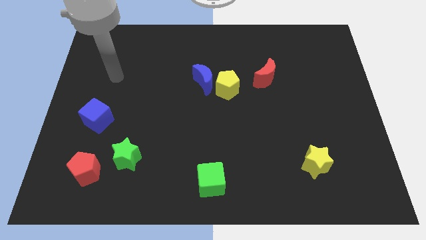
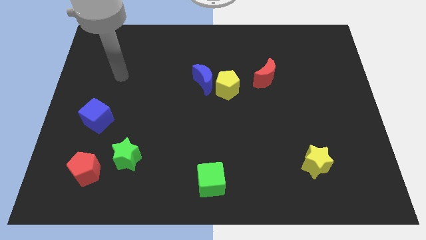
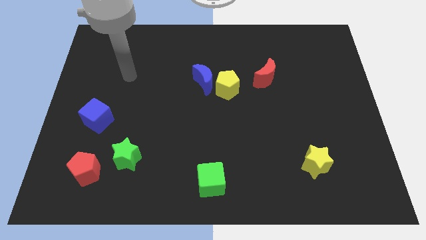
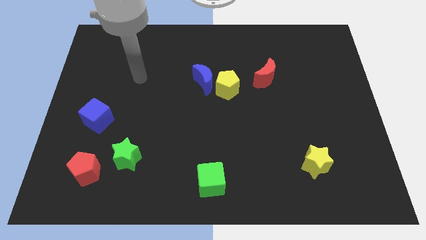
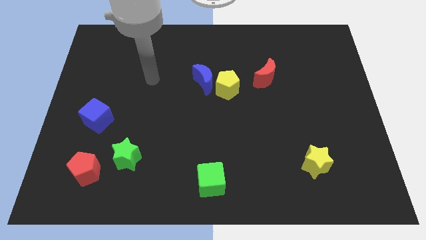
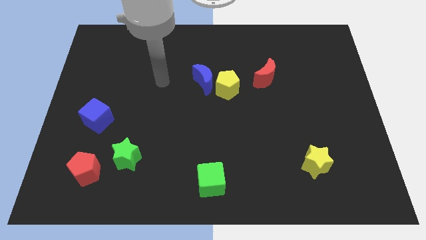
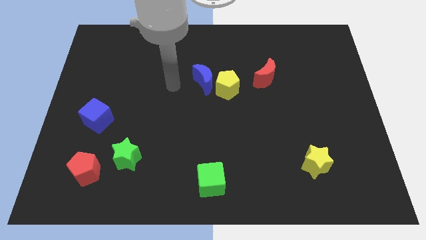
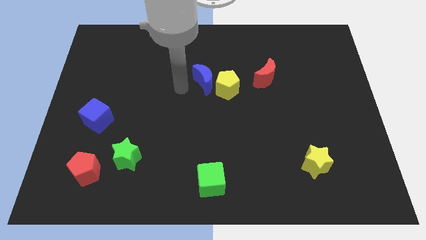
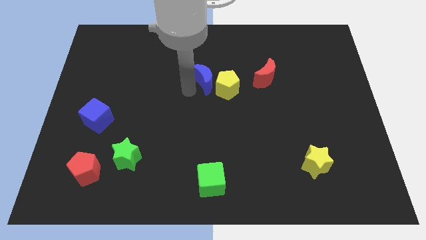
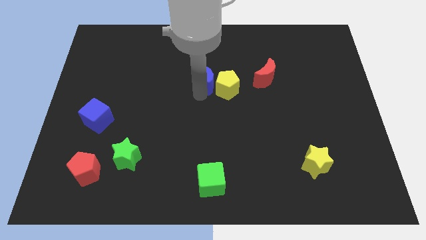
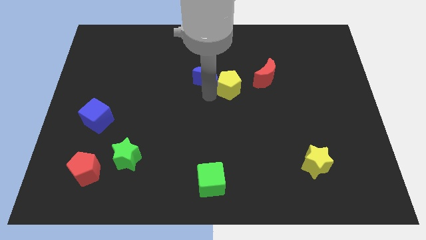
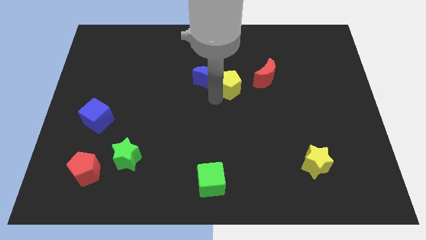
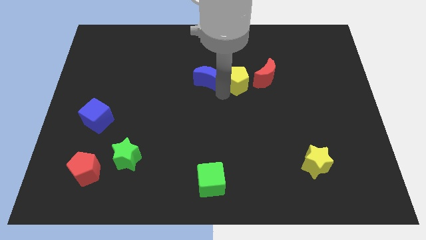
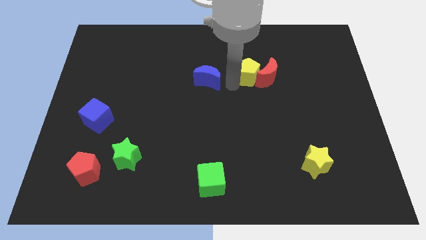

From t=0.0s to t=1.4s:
separate the blue moon from the yellow pentagon

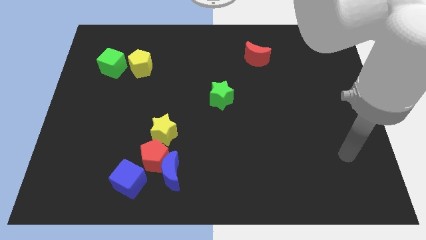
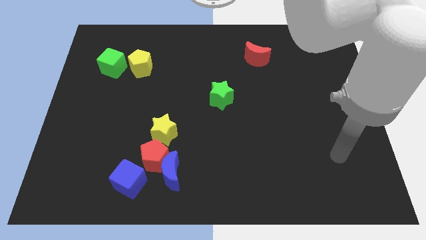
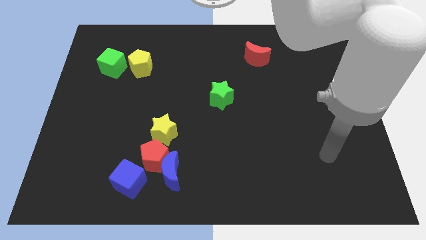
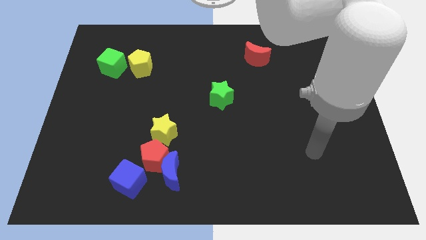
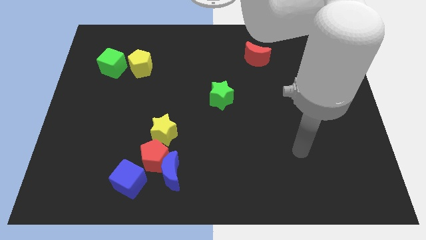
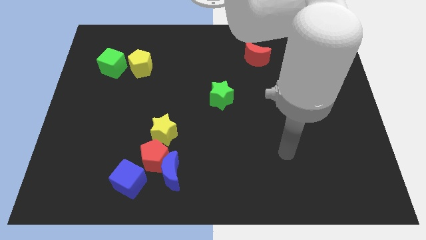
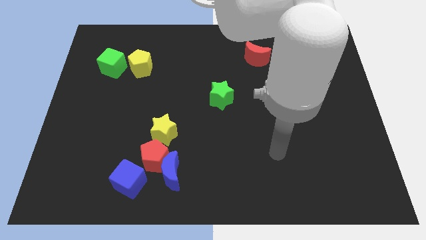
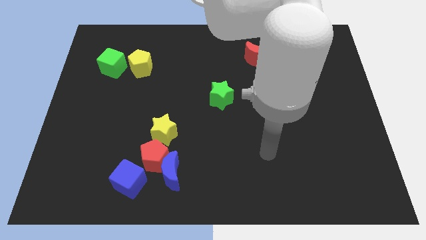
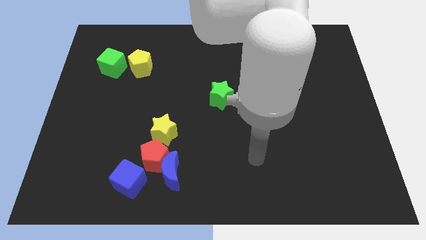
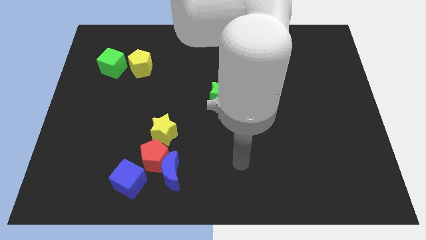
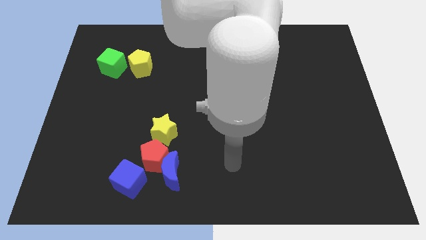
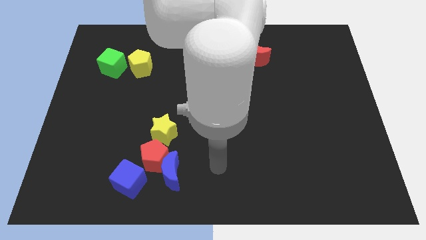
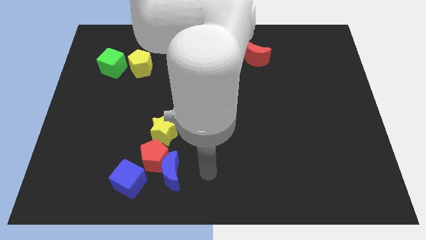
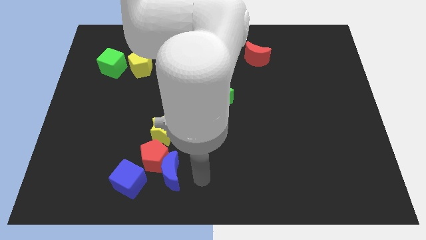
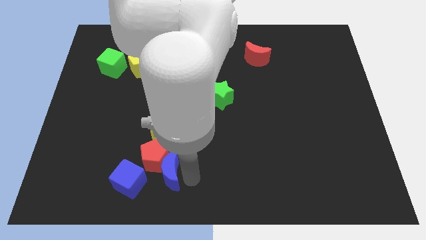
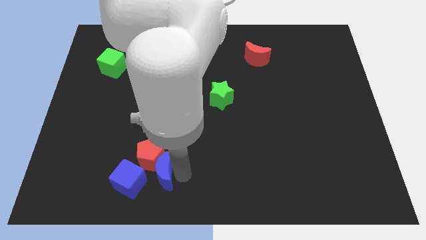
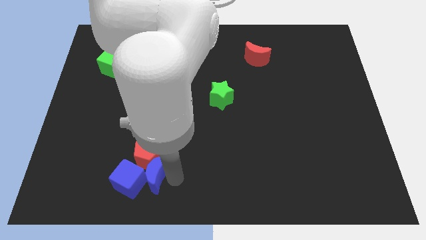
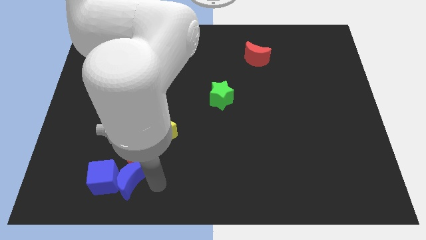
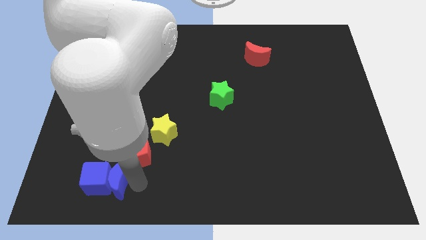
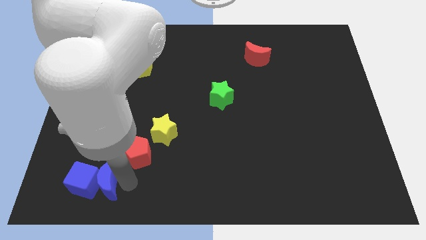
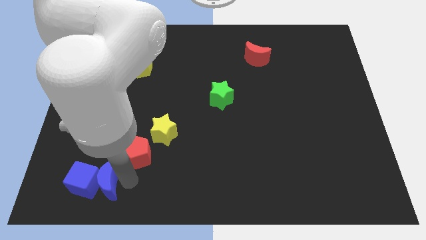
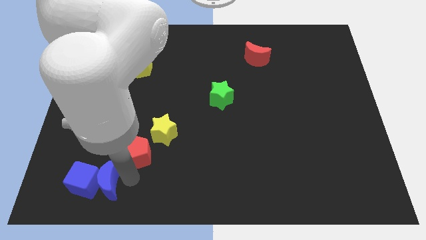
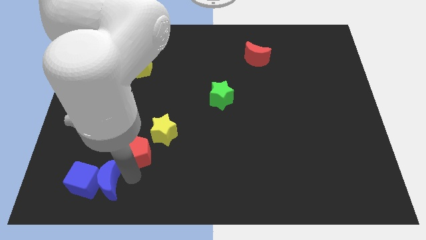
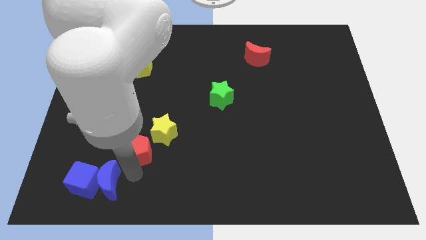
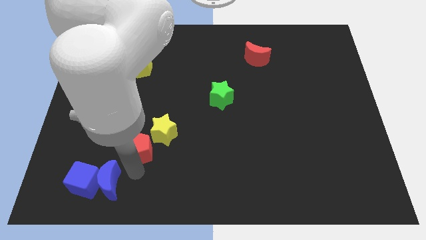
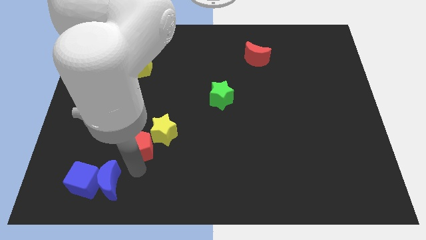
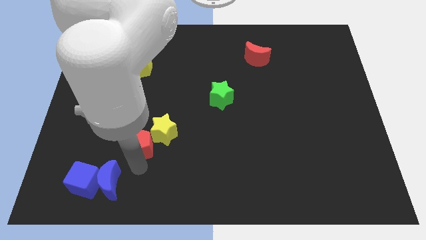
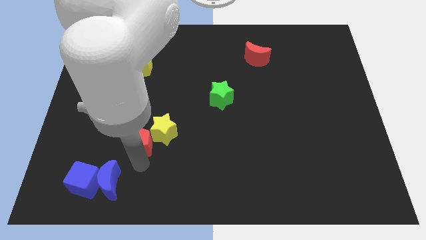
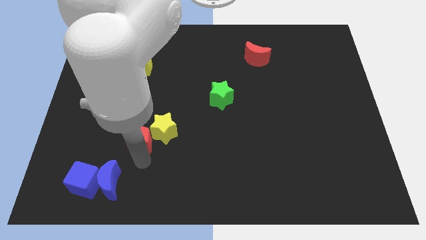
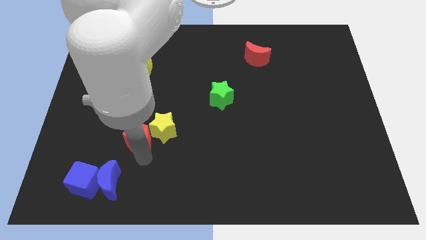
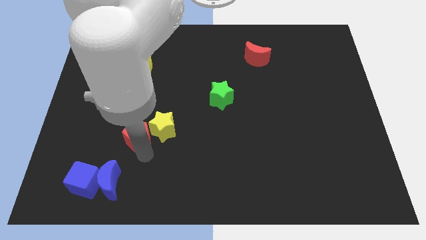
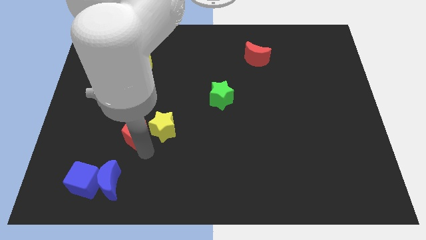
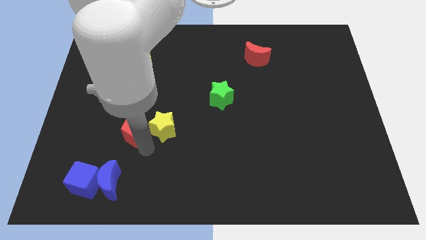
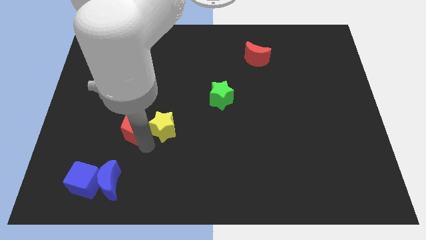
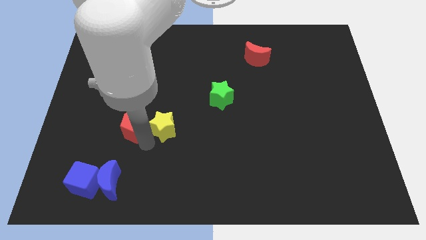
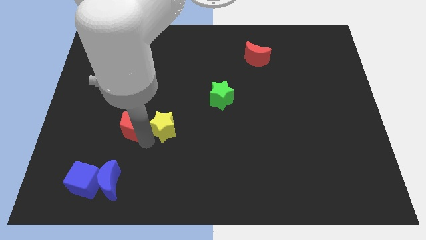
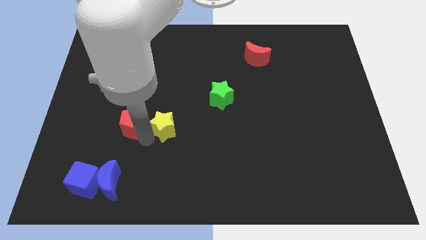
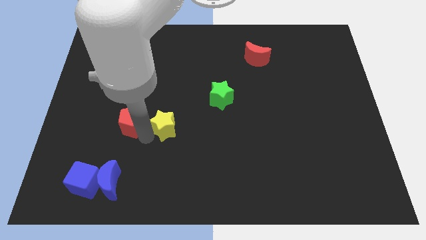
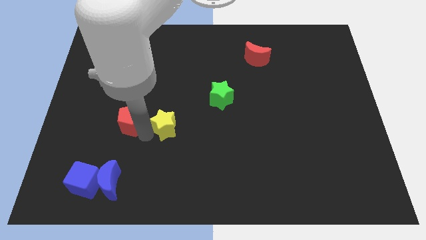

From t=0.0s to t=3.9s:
separate the red pentagon from the group

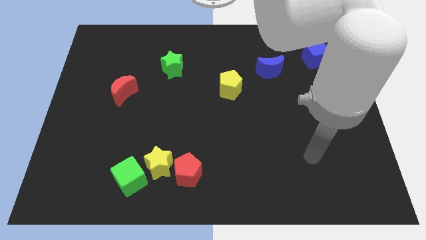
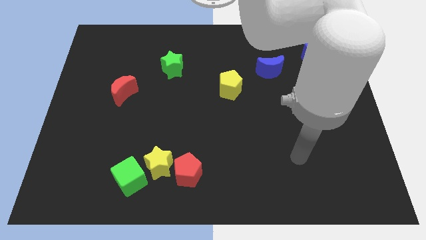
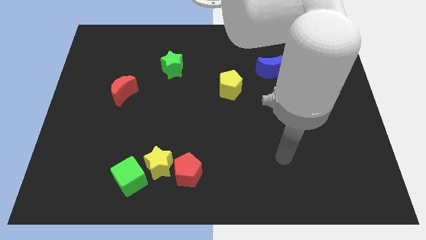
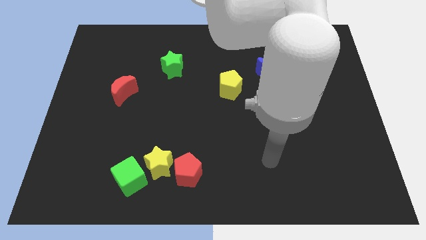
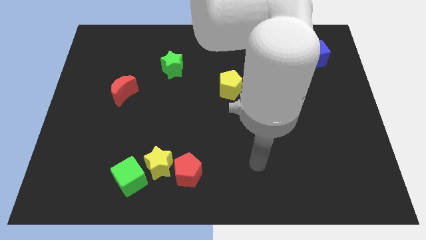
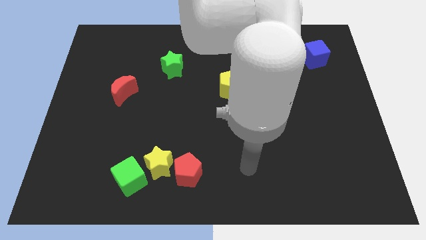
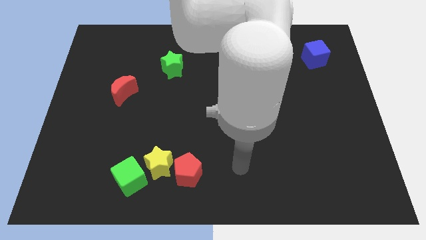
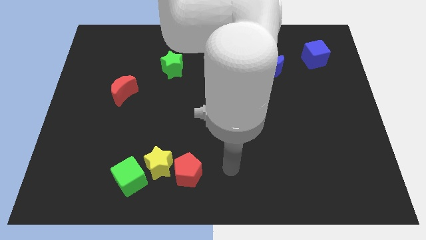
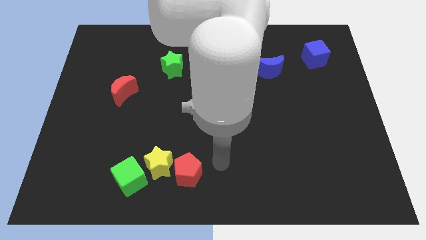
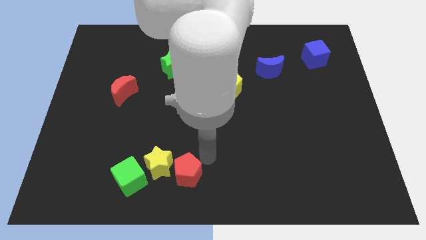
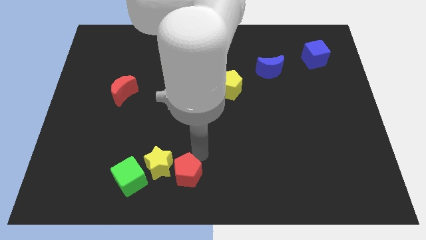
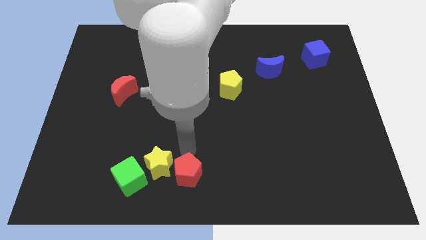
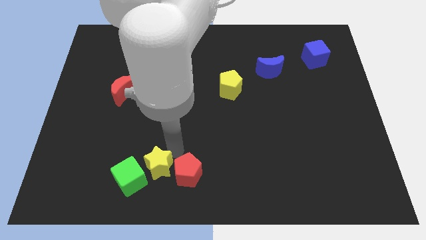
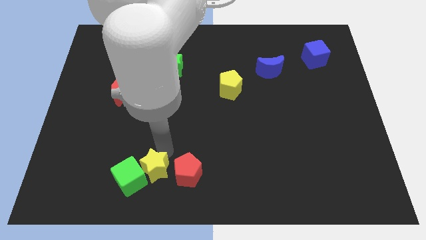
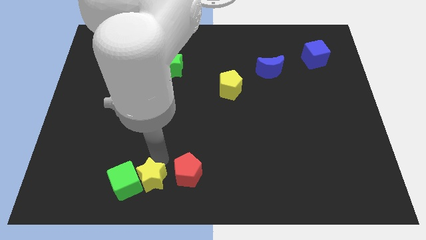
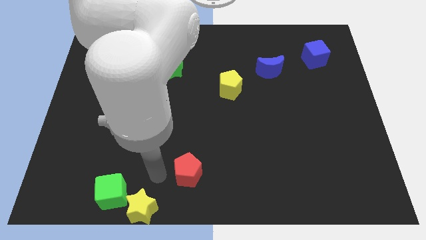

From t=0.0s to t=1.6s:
separate the red pentagon from the yellow star

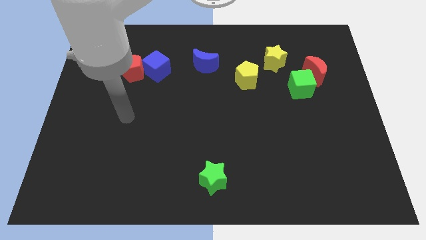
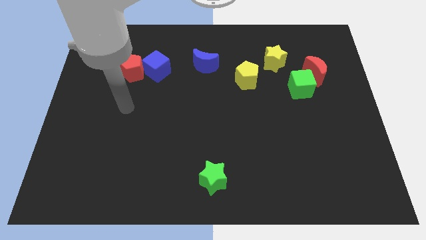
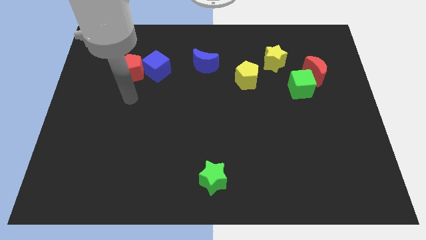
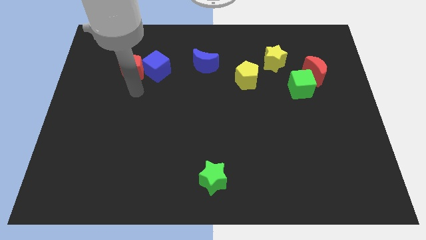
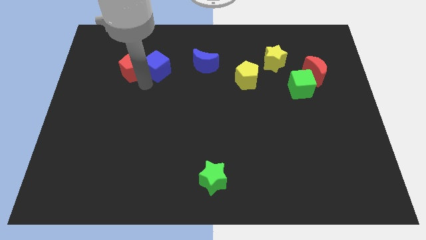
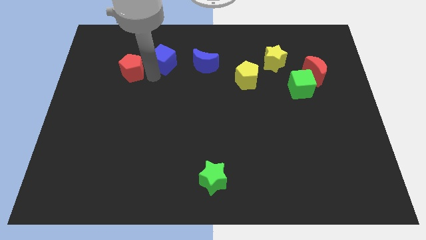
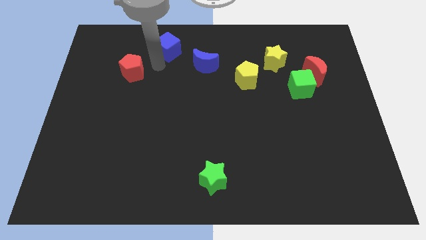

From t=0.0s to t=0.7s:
separate the red pentagon from the blue cube

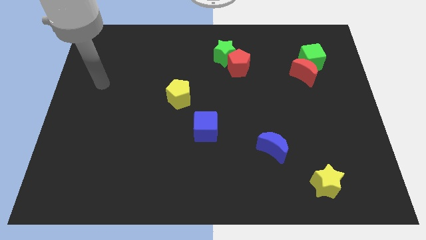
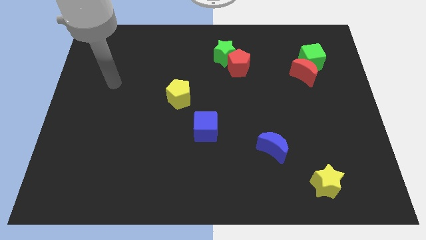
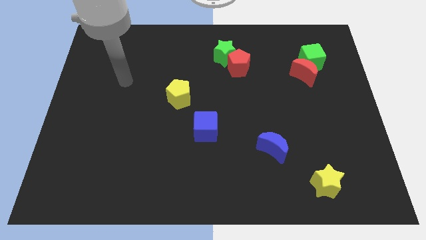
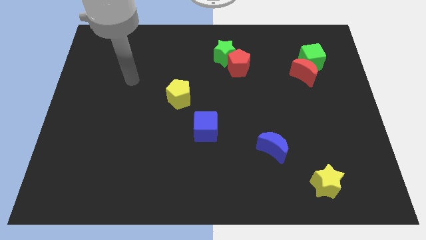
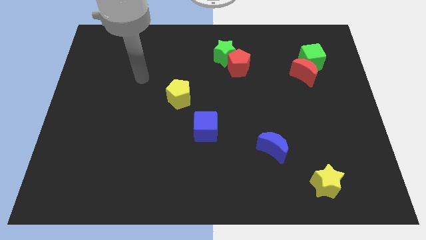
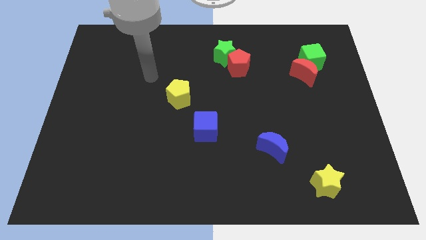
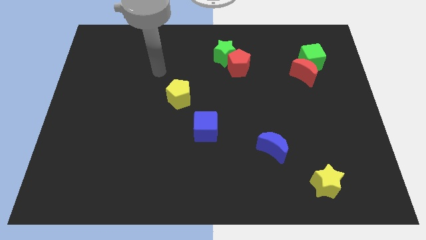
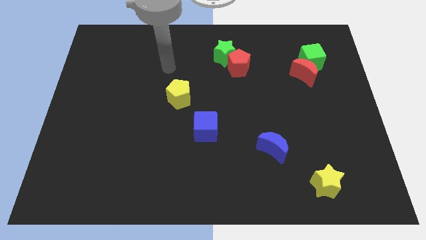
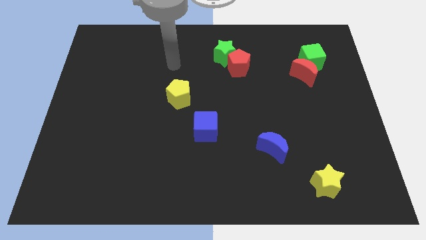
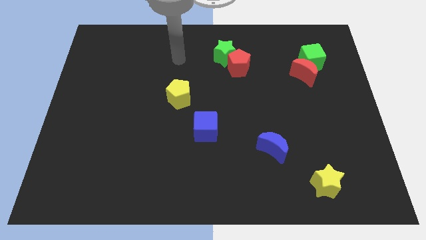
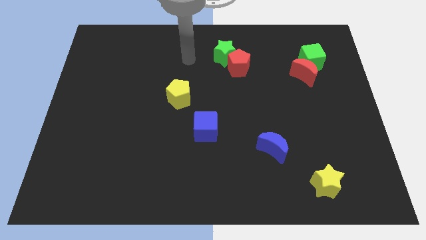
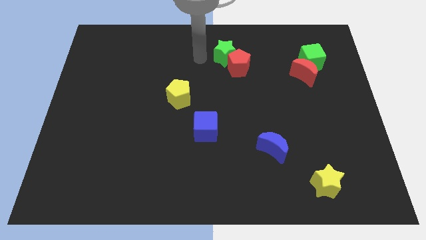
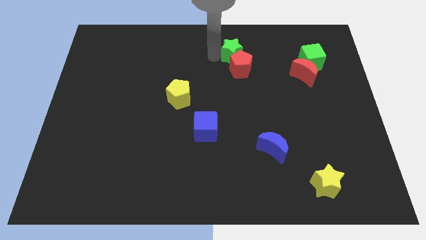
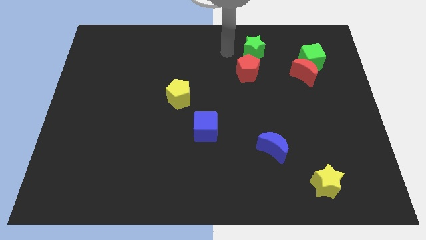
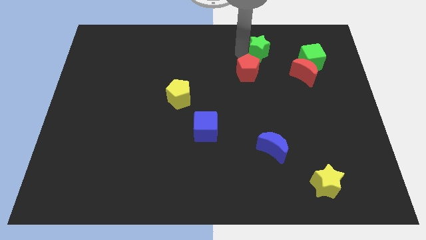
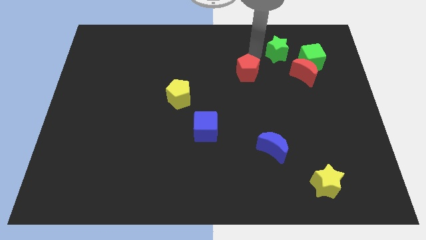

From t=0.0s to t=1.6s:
move the red pentagon away from the green star

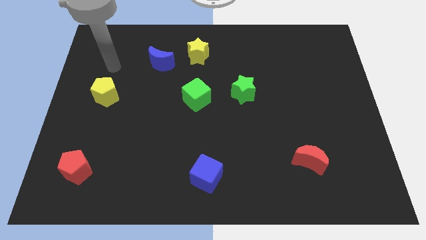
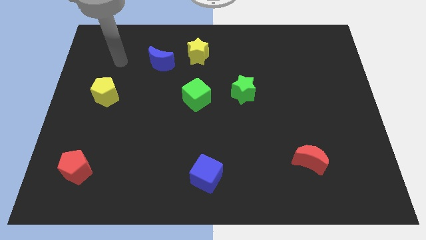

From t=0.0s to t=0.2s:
pull the blue moon apart from the yellow star
